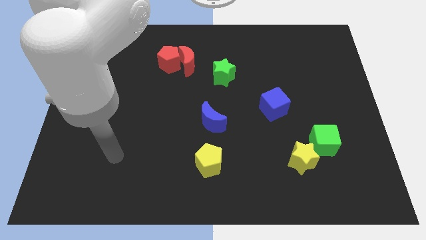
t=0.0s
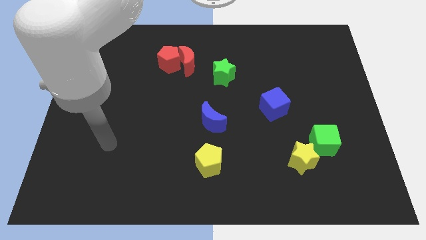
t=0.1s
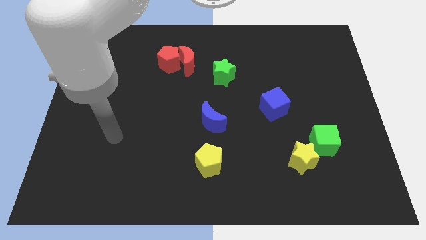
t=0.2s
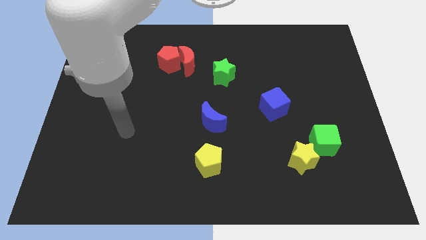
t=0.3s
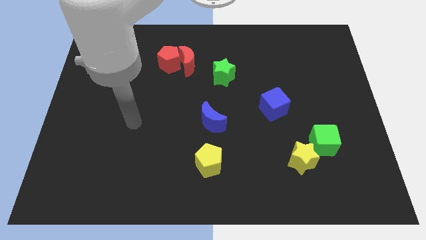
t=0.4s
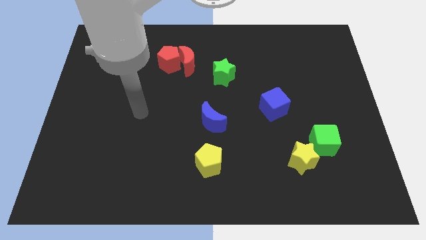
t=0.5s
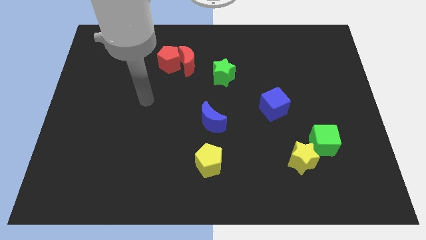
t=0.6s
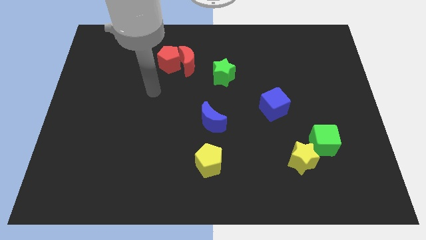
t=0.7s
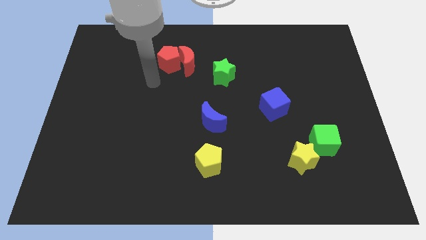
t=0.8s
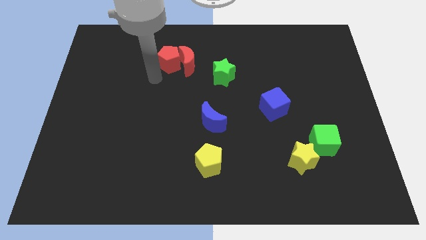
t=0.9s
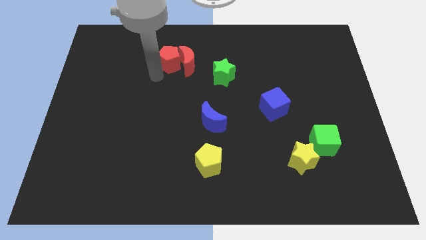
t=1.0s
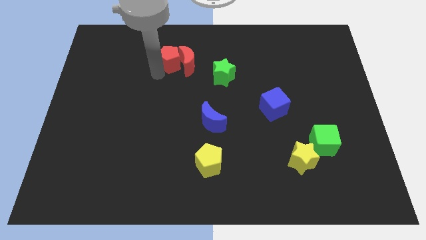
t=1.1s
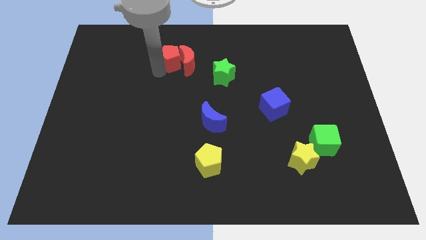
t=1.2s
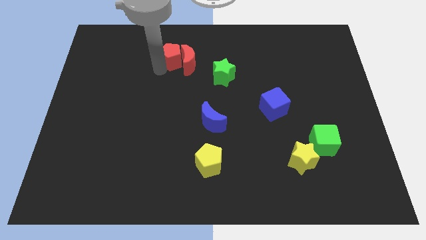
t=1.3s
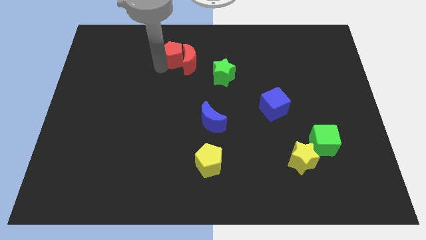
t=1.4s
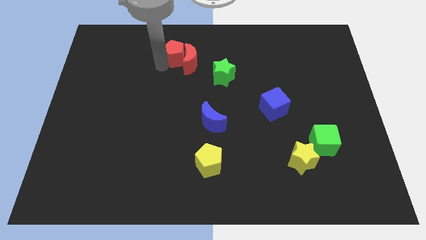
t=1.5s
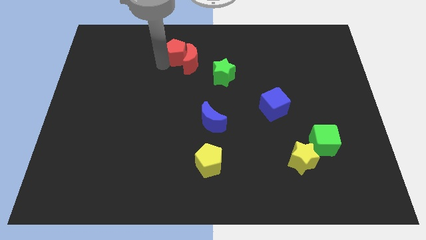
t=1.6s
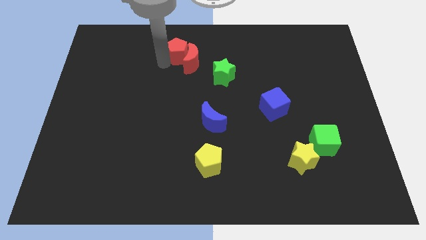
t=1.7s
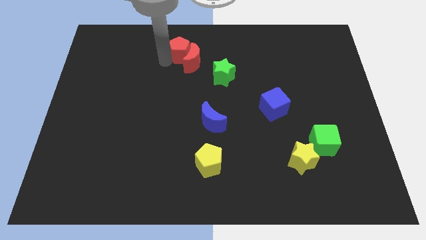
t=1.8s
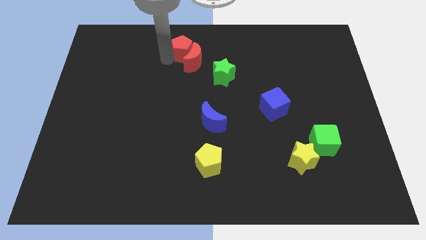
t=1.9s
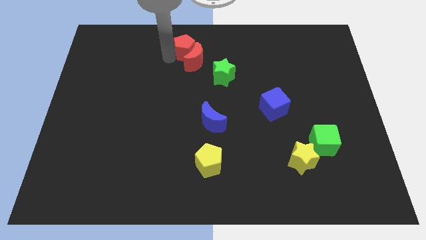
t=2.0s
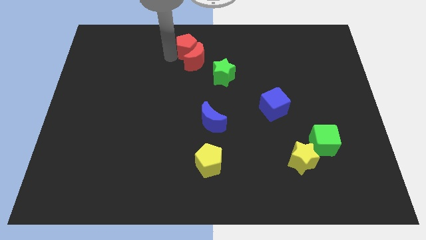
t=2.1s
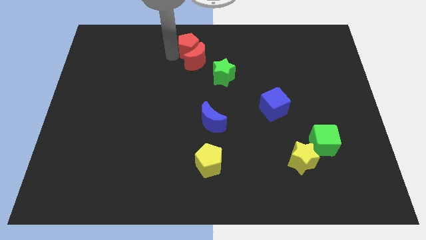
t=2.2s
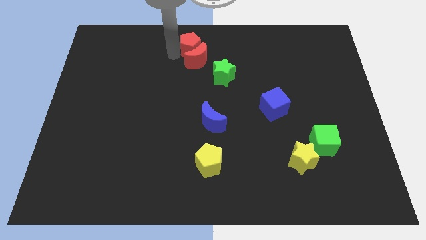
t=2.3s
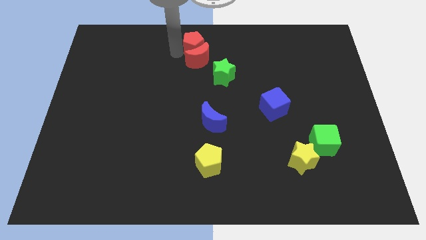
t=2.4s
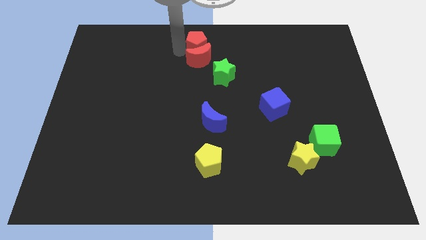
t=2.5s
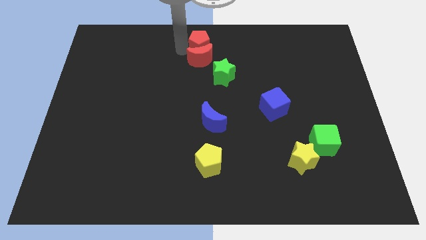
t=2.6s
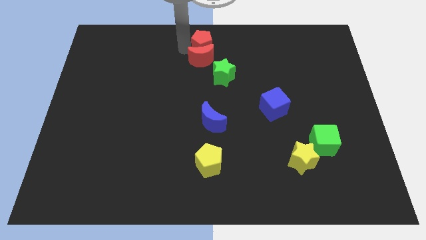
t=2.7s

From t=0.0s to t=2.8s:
move the red pentagon to the right somewhat

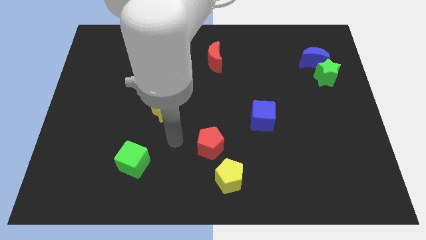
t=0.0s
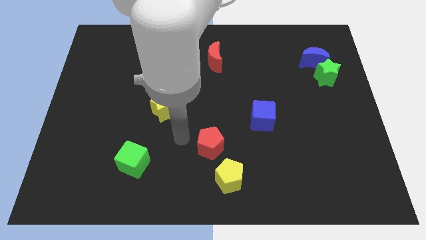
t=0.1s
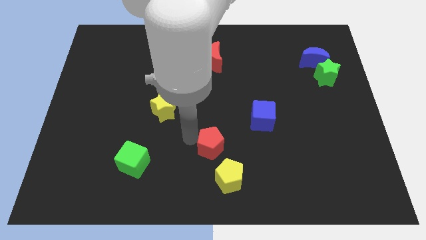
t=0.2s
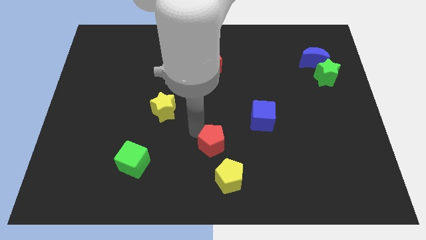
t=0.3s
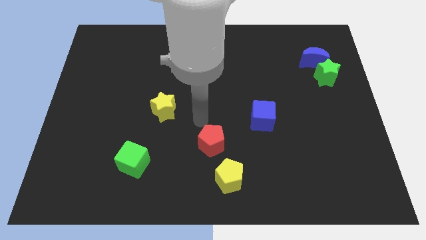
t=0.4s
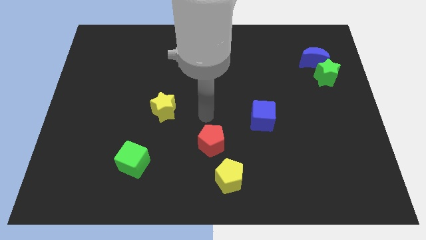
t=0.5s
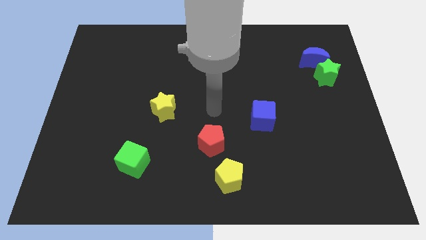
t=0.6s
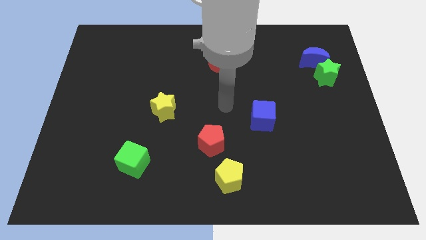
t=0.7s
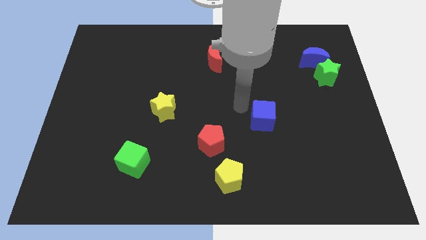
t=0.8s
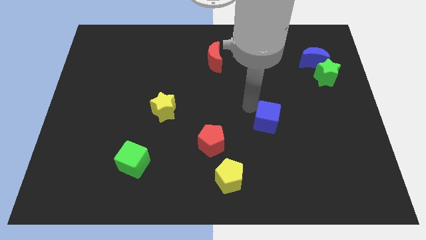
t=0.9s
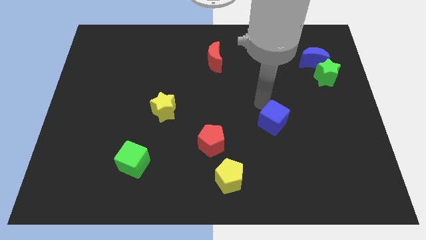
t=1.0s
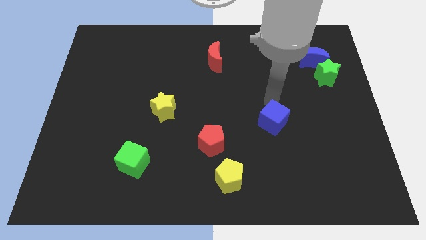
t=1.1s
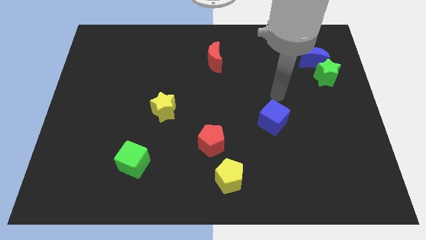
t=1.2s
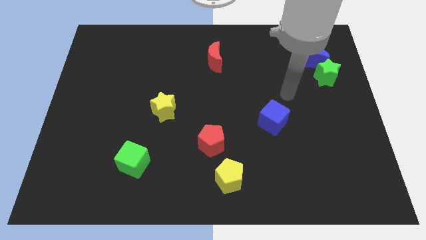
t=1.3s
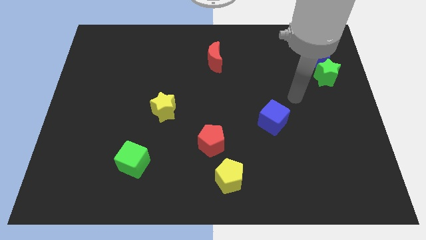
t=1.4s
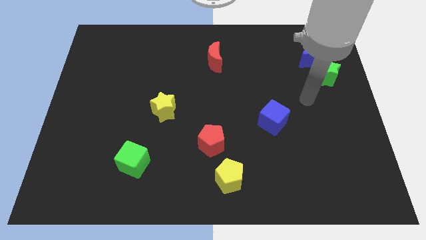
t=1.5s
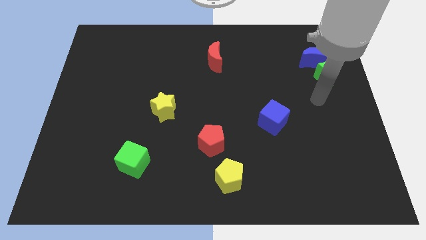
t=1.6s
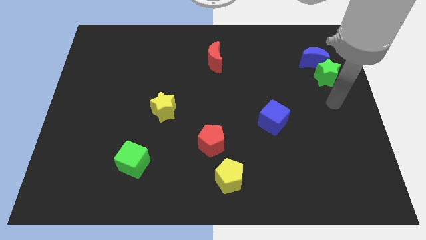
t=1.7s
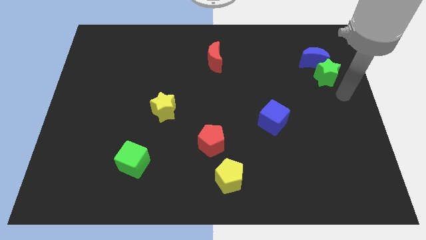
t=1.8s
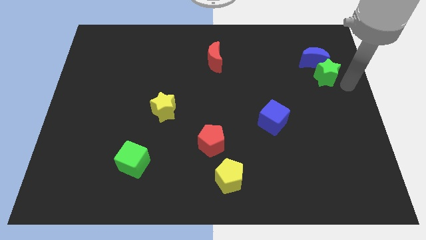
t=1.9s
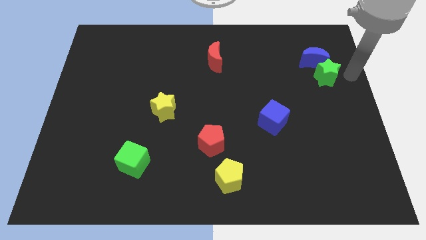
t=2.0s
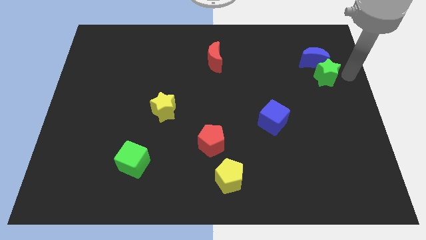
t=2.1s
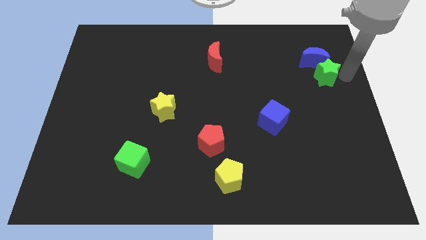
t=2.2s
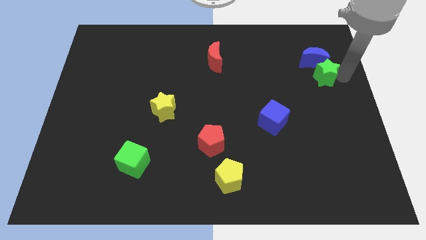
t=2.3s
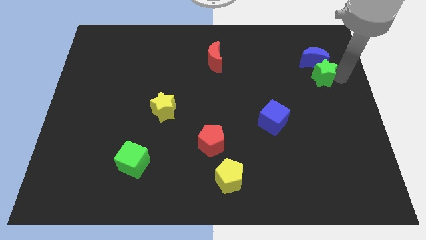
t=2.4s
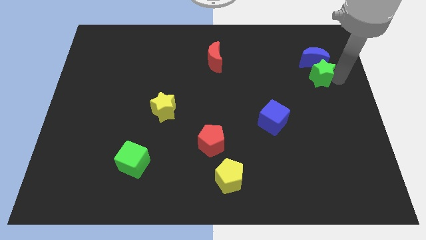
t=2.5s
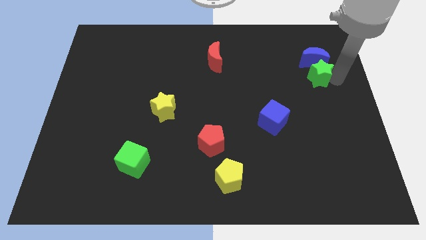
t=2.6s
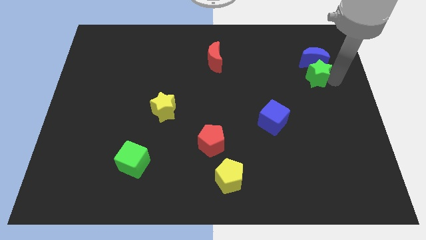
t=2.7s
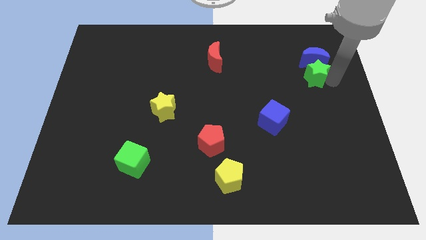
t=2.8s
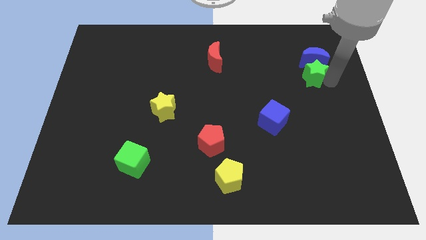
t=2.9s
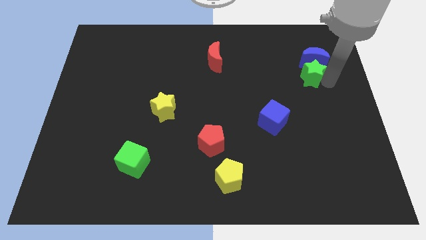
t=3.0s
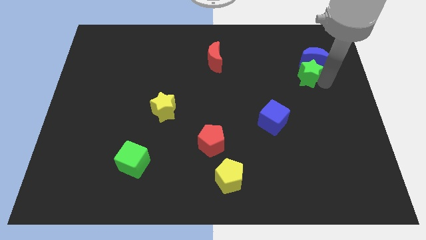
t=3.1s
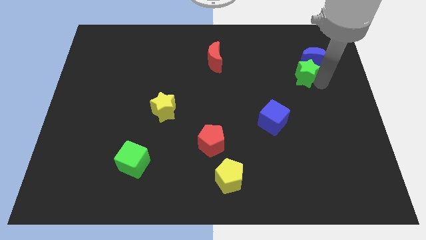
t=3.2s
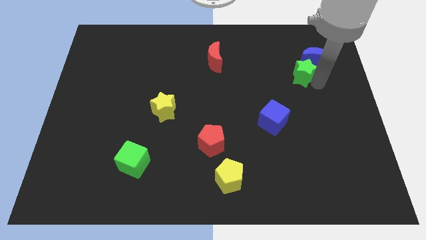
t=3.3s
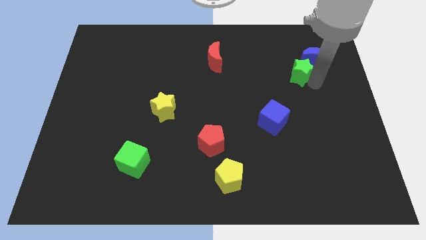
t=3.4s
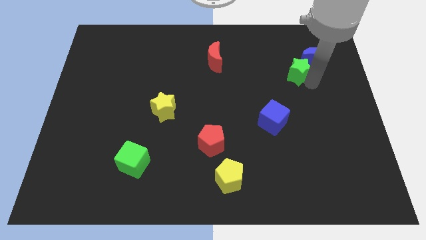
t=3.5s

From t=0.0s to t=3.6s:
slide the green star a little bit to the left

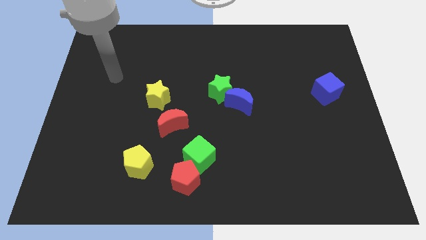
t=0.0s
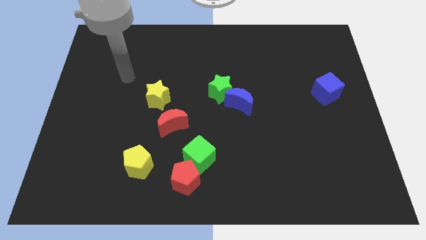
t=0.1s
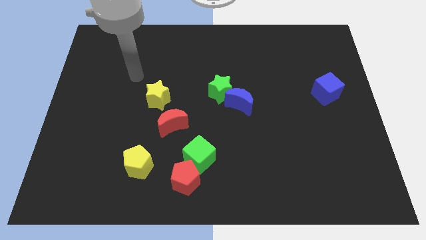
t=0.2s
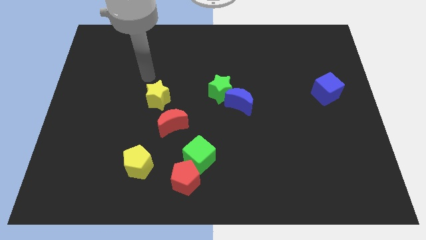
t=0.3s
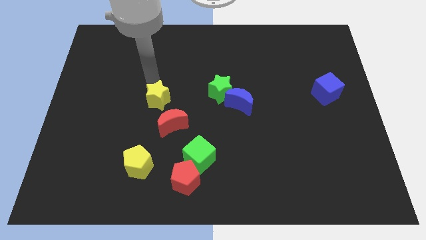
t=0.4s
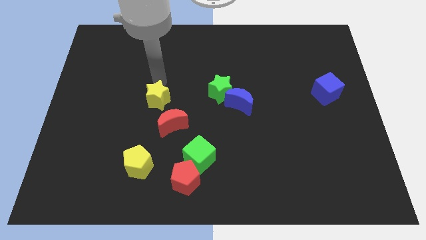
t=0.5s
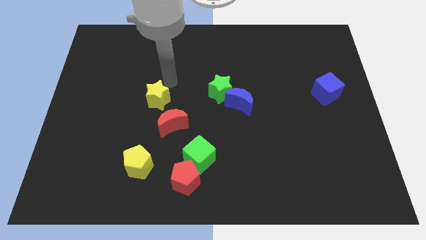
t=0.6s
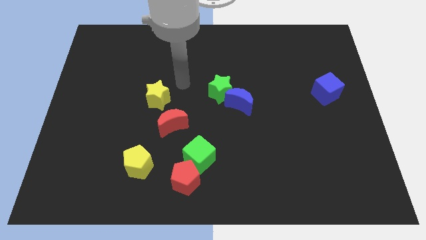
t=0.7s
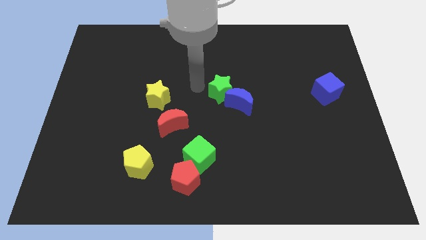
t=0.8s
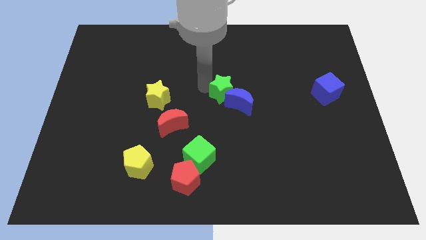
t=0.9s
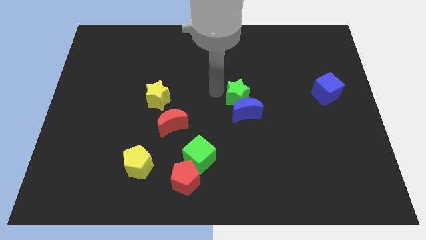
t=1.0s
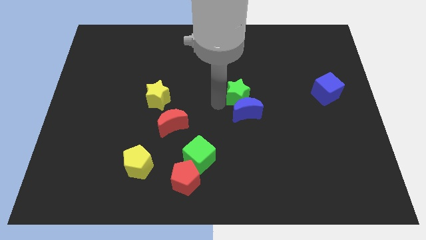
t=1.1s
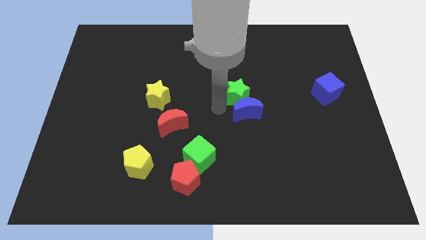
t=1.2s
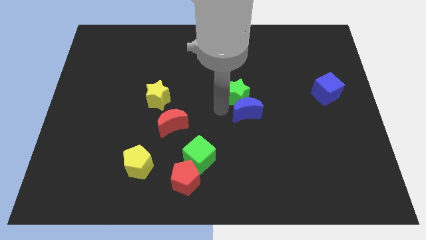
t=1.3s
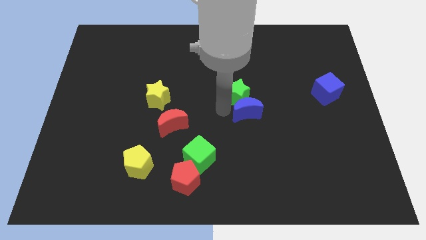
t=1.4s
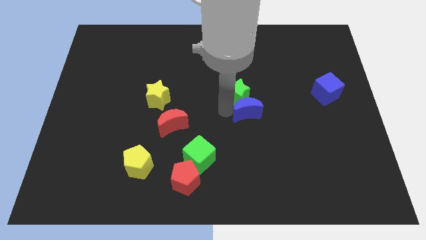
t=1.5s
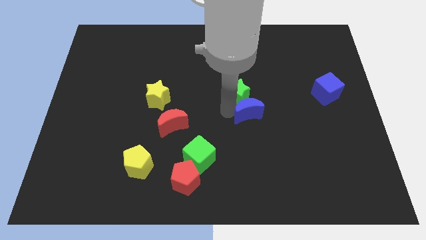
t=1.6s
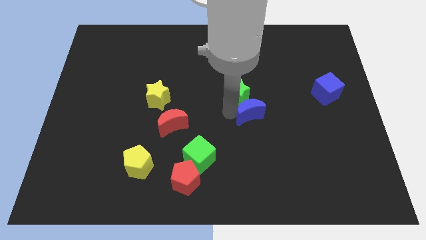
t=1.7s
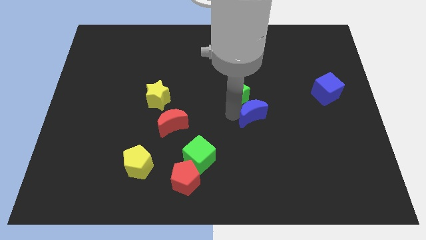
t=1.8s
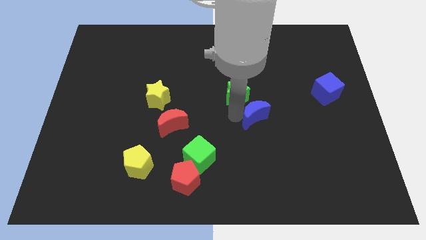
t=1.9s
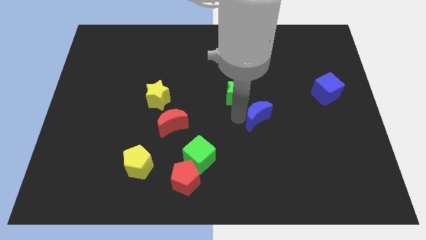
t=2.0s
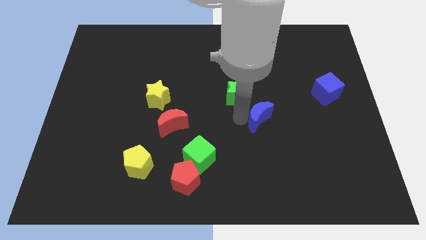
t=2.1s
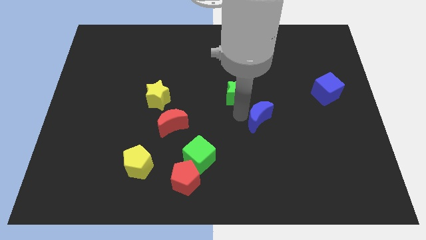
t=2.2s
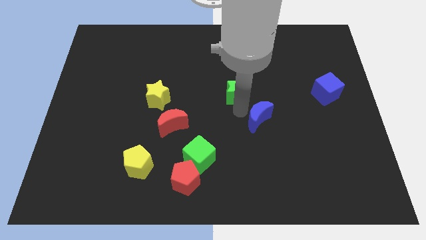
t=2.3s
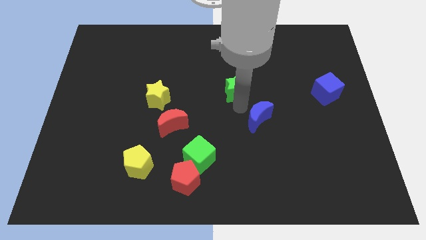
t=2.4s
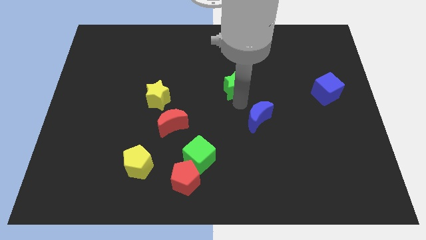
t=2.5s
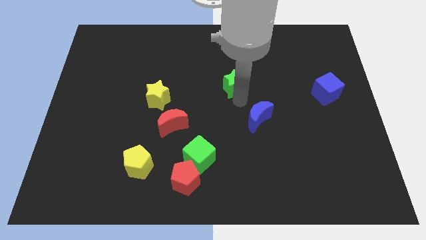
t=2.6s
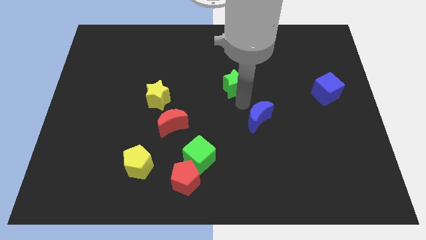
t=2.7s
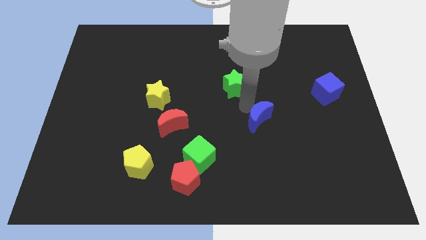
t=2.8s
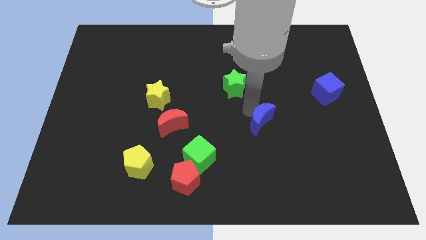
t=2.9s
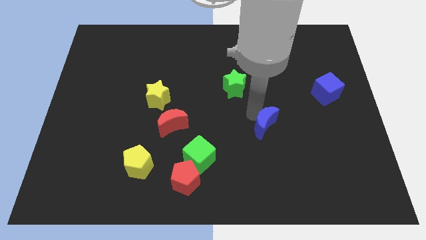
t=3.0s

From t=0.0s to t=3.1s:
push the blue moon diagonally down and to the right somewhat
